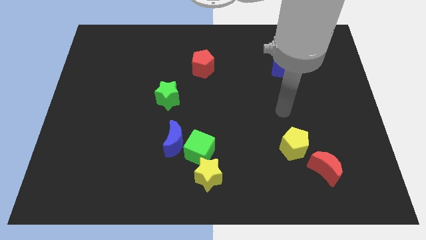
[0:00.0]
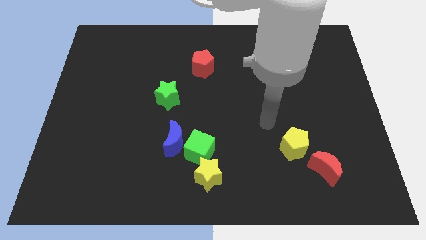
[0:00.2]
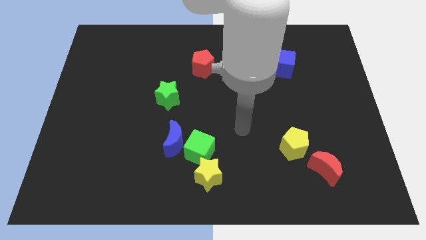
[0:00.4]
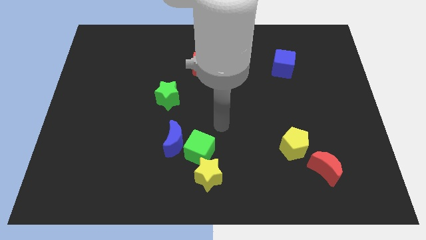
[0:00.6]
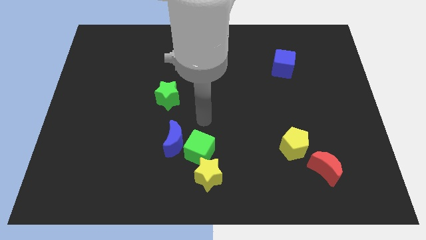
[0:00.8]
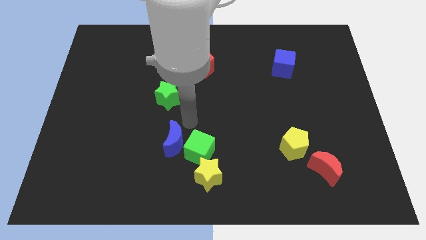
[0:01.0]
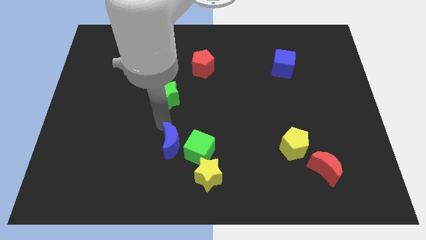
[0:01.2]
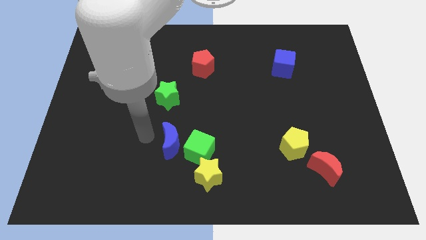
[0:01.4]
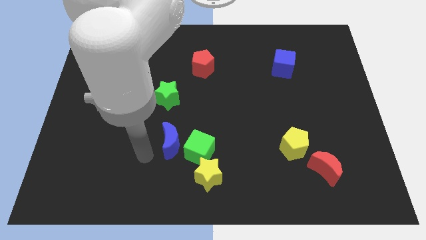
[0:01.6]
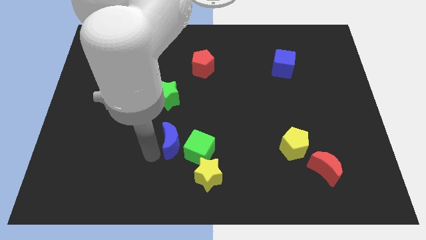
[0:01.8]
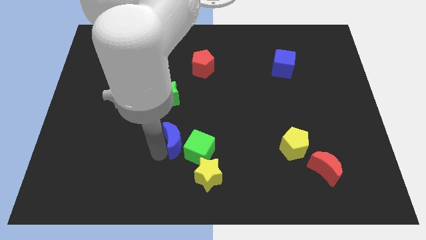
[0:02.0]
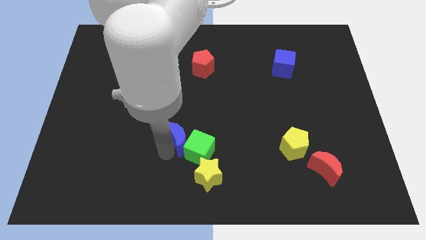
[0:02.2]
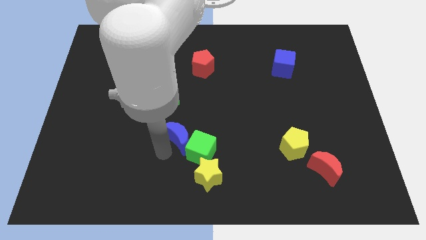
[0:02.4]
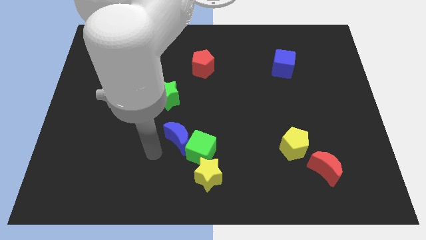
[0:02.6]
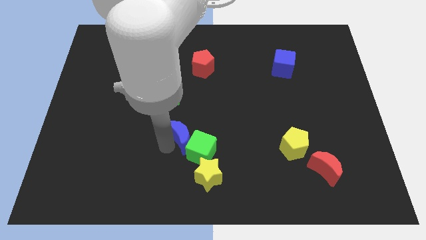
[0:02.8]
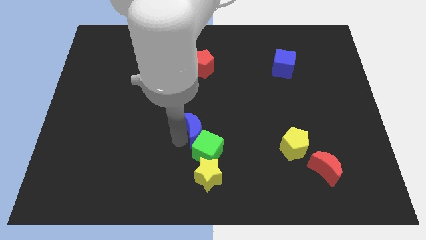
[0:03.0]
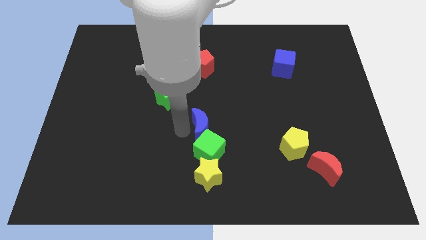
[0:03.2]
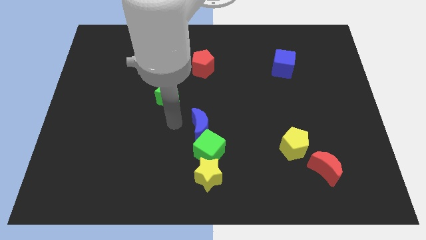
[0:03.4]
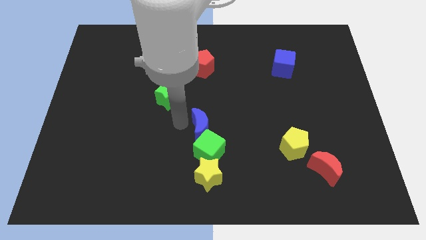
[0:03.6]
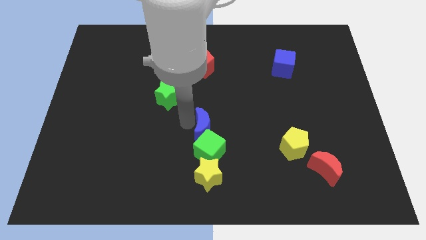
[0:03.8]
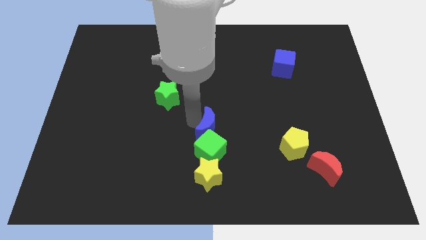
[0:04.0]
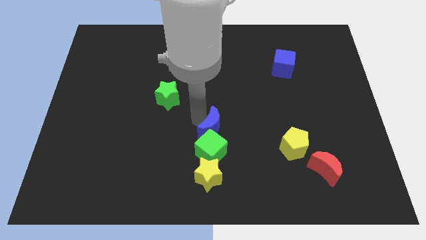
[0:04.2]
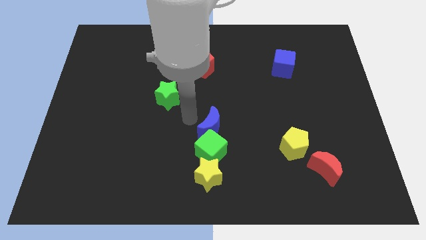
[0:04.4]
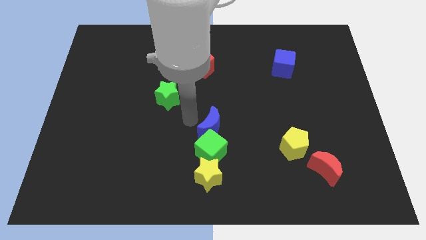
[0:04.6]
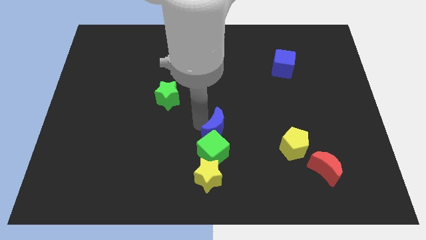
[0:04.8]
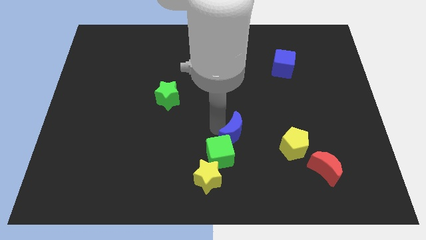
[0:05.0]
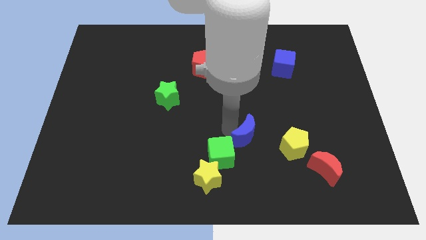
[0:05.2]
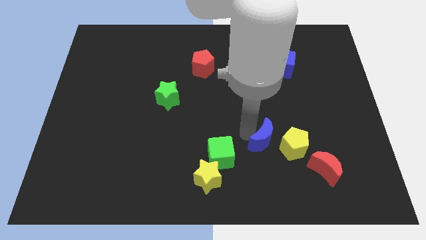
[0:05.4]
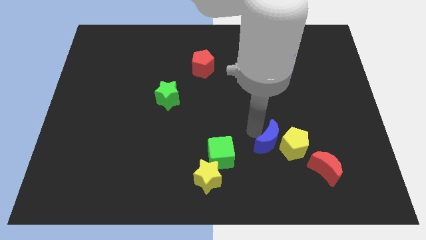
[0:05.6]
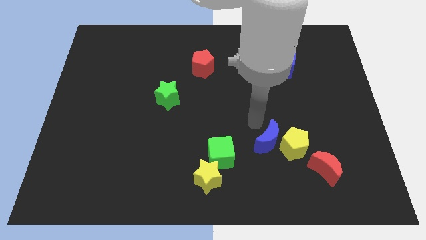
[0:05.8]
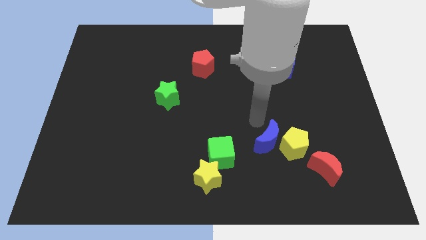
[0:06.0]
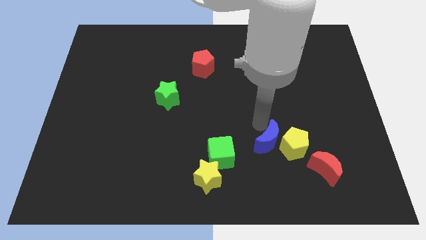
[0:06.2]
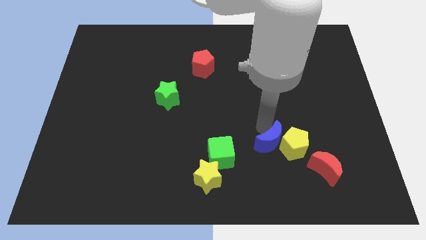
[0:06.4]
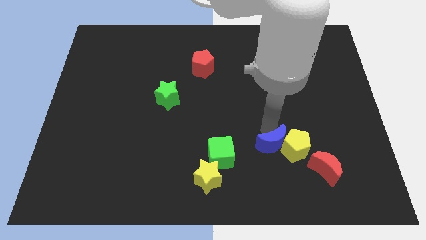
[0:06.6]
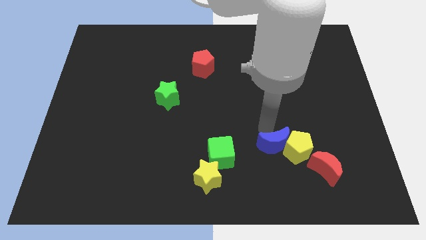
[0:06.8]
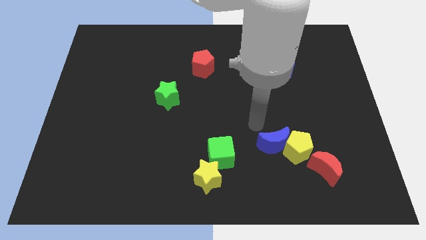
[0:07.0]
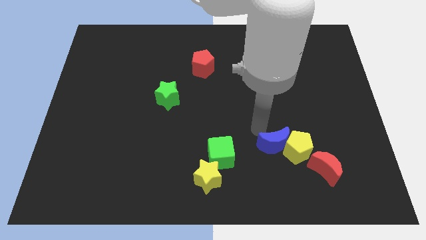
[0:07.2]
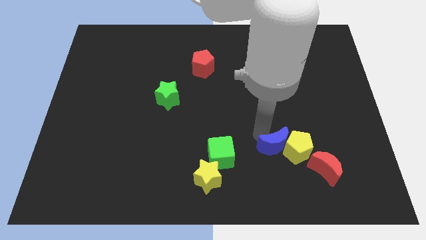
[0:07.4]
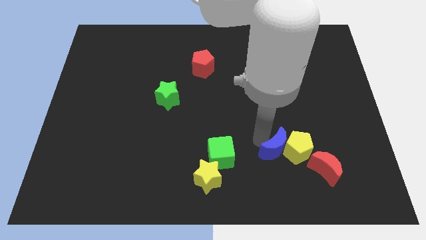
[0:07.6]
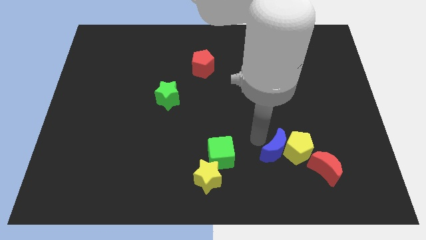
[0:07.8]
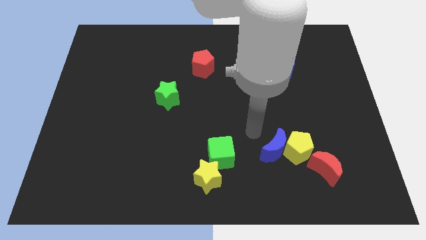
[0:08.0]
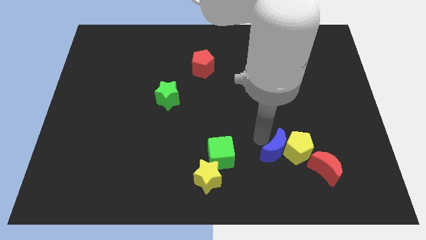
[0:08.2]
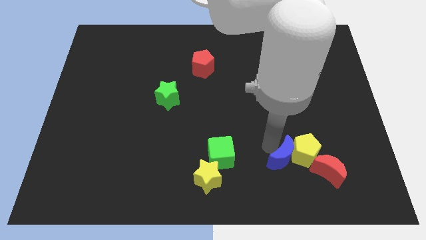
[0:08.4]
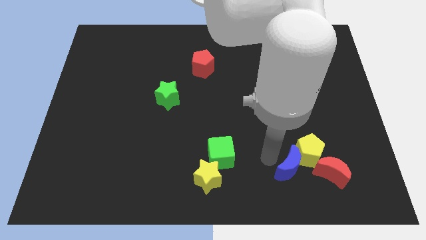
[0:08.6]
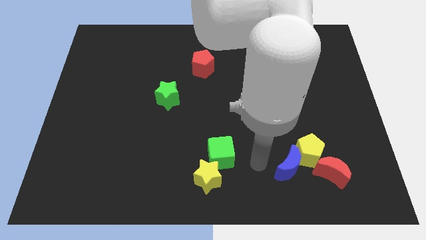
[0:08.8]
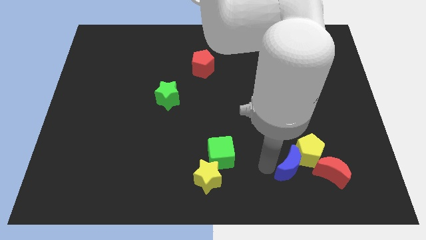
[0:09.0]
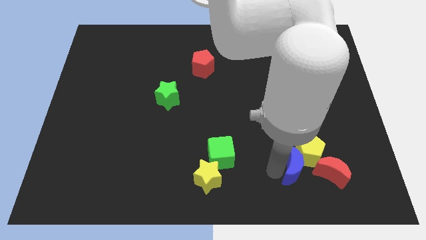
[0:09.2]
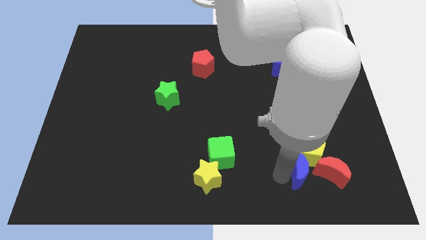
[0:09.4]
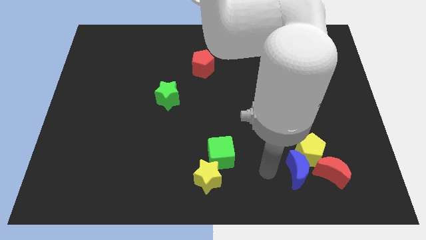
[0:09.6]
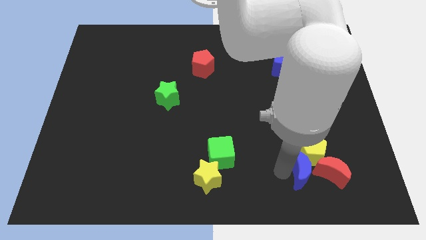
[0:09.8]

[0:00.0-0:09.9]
move the blue moon next to the red moon

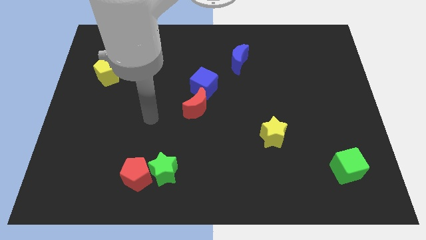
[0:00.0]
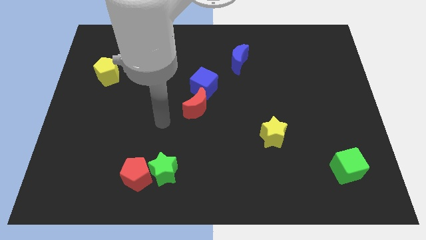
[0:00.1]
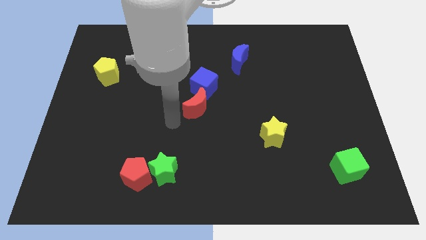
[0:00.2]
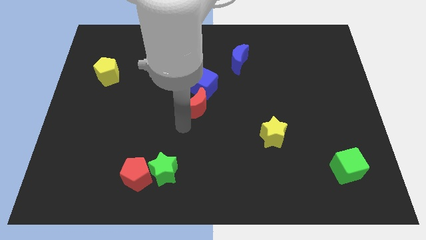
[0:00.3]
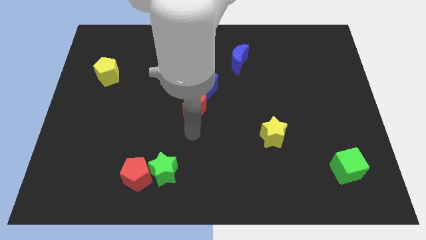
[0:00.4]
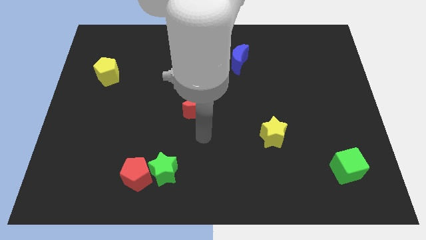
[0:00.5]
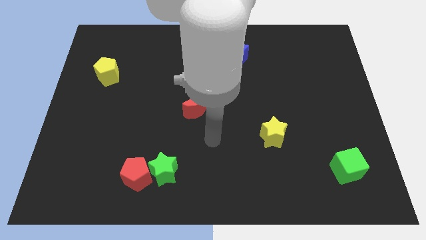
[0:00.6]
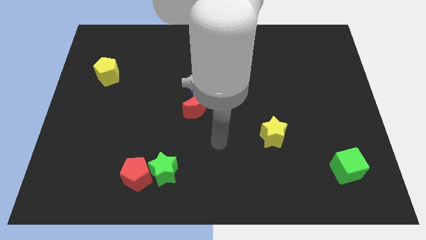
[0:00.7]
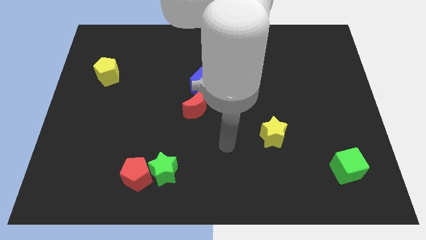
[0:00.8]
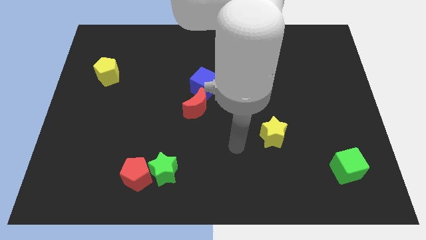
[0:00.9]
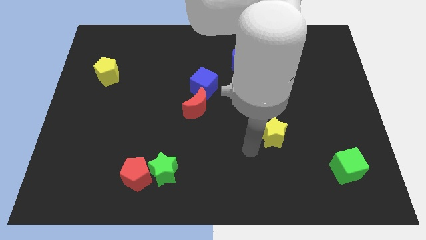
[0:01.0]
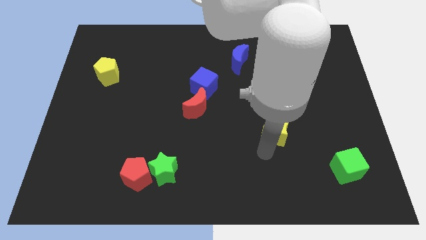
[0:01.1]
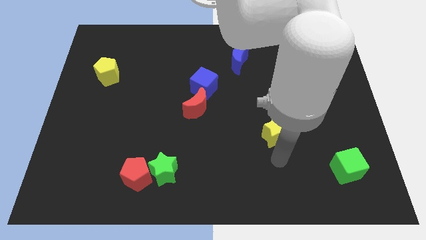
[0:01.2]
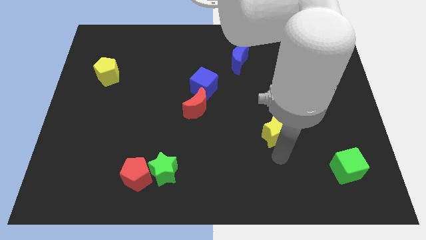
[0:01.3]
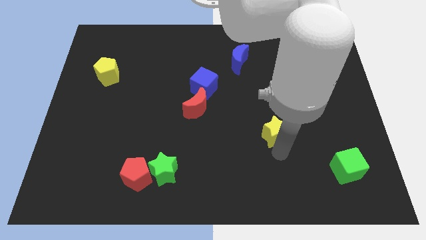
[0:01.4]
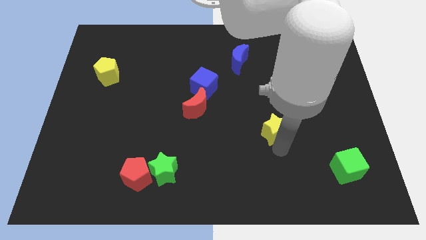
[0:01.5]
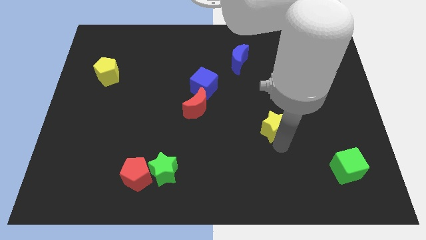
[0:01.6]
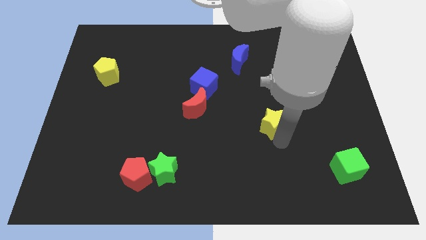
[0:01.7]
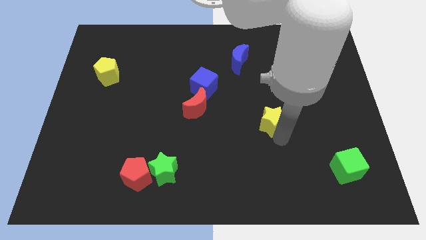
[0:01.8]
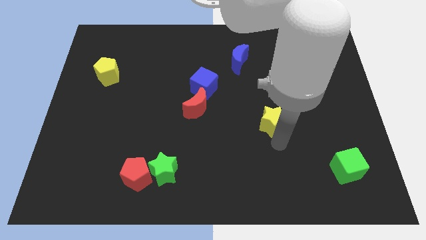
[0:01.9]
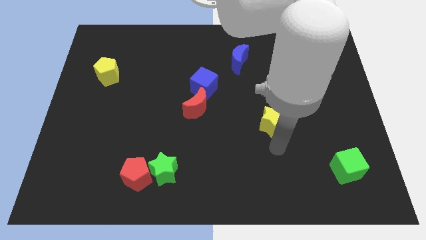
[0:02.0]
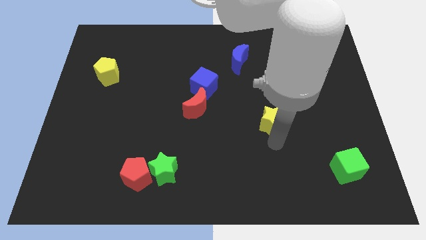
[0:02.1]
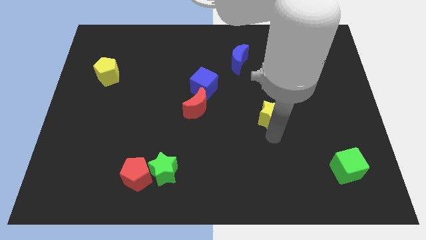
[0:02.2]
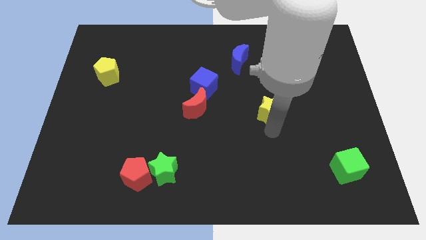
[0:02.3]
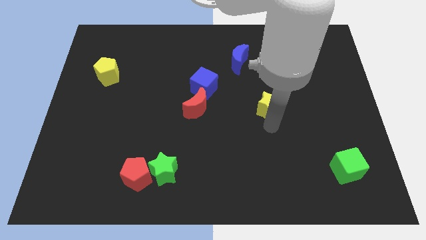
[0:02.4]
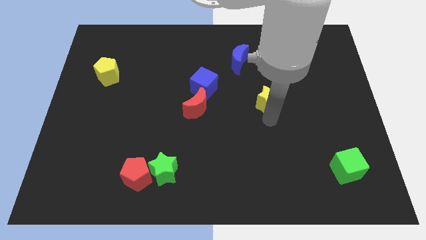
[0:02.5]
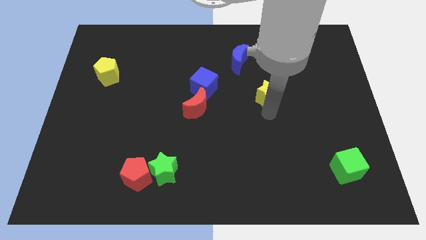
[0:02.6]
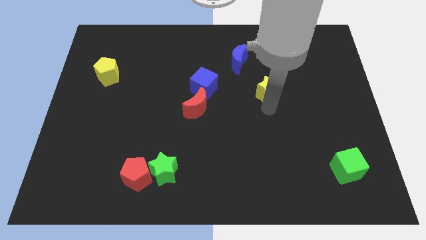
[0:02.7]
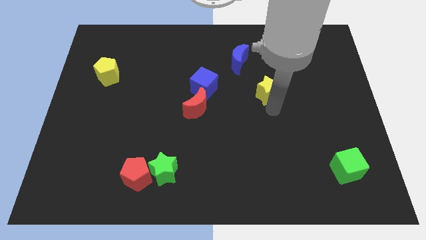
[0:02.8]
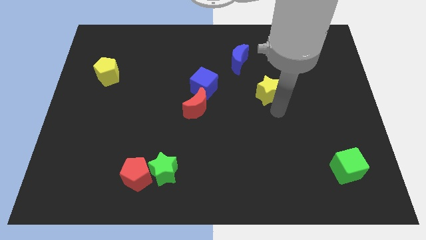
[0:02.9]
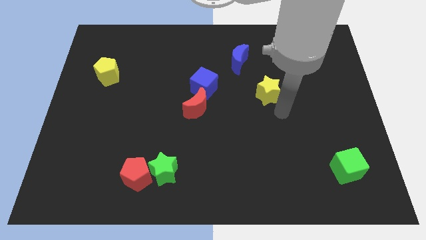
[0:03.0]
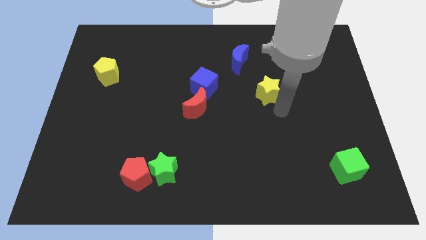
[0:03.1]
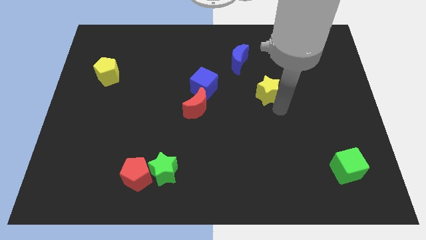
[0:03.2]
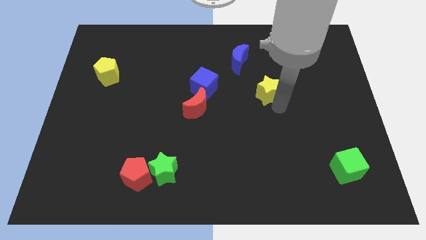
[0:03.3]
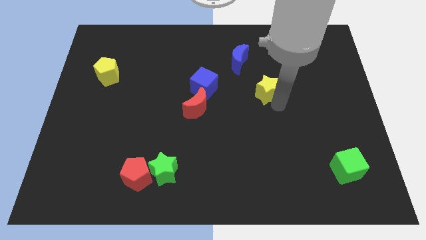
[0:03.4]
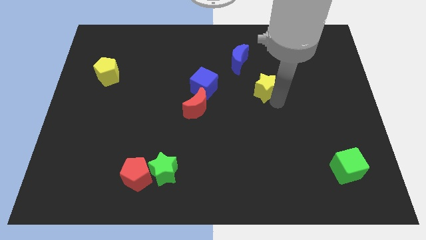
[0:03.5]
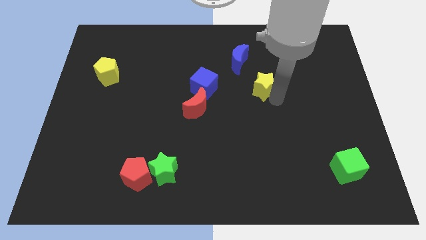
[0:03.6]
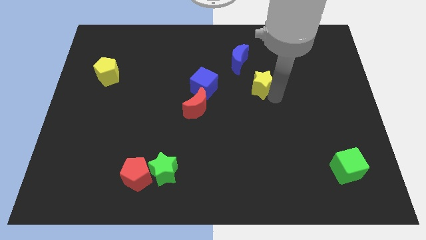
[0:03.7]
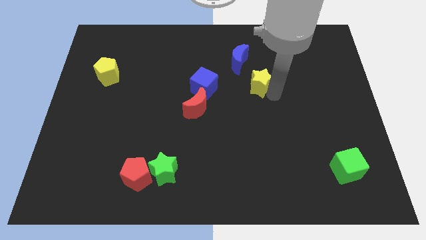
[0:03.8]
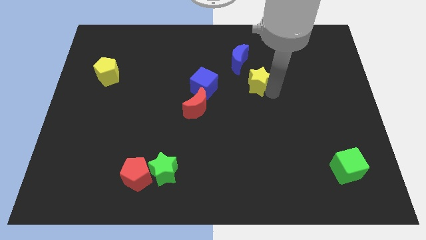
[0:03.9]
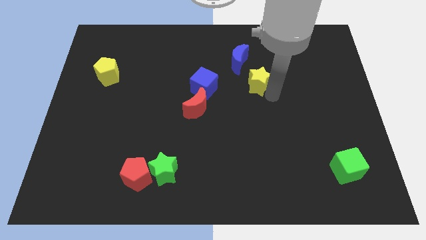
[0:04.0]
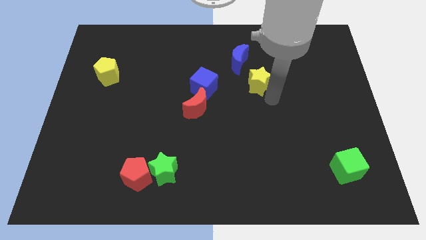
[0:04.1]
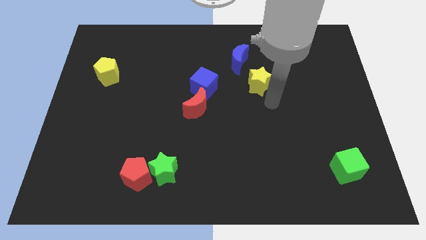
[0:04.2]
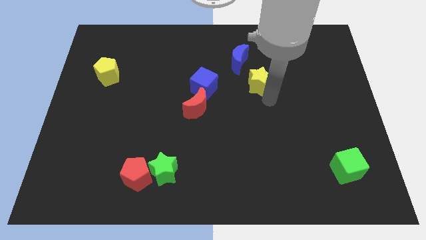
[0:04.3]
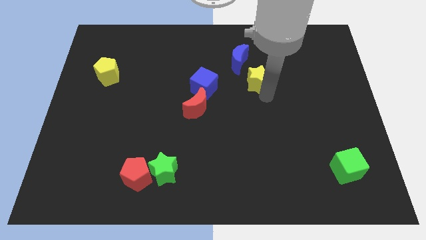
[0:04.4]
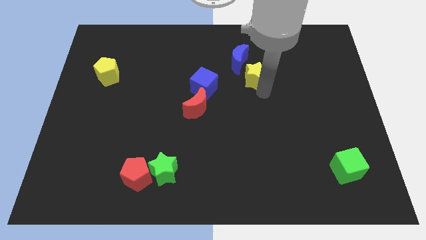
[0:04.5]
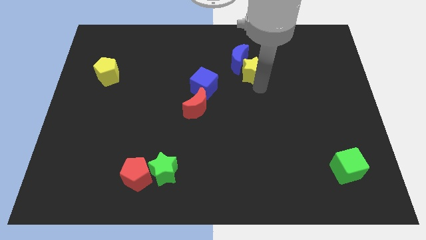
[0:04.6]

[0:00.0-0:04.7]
put the yellow star to the blue moon
